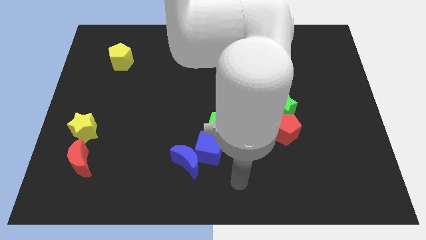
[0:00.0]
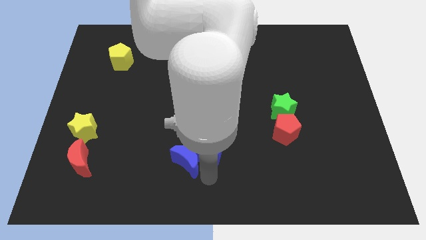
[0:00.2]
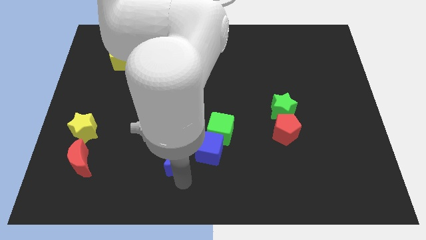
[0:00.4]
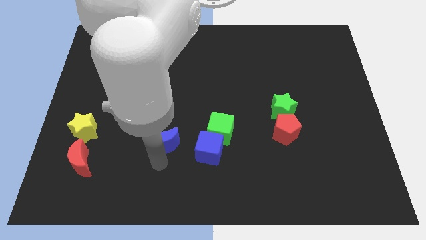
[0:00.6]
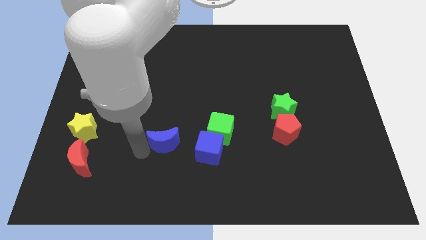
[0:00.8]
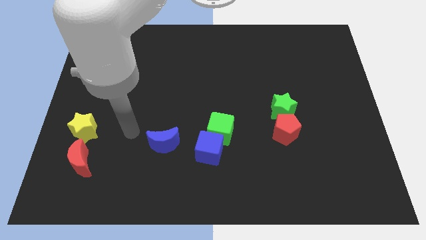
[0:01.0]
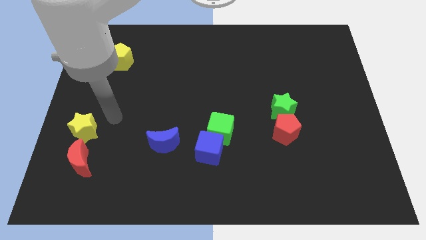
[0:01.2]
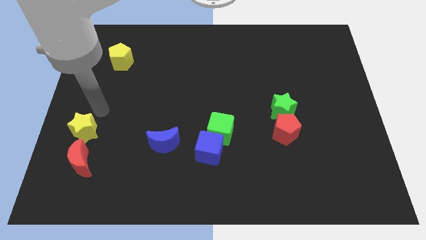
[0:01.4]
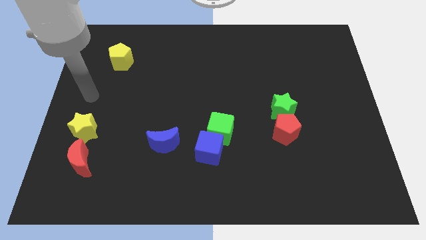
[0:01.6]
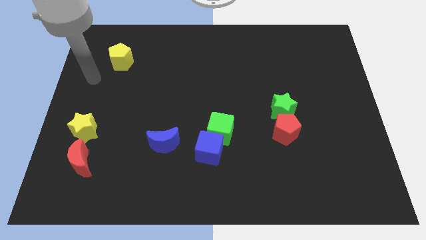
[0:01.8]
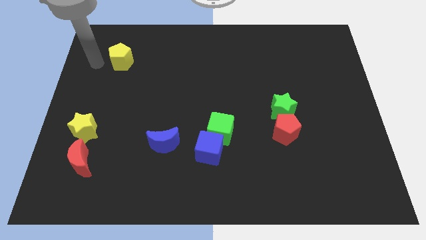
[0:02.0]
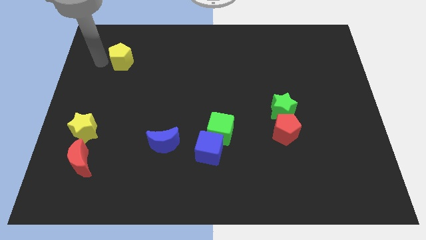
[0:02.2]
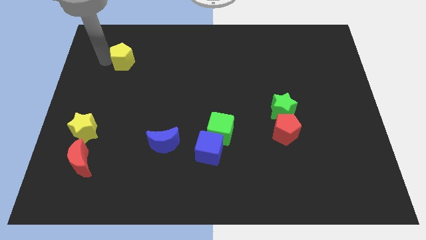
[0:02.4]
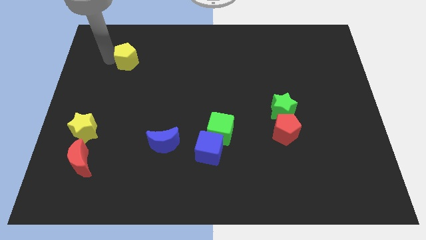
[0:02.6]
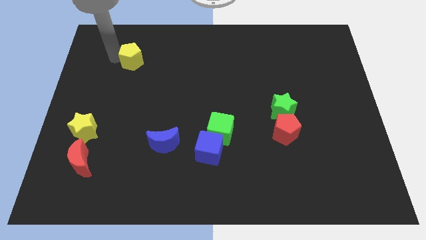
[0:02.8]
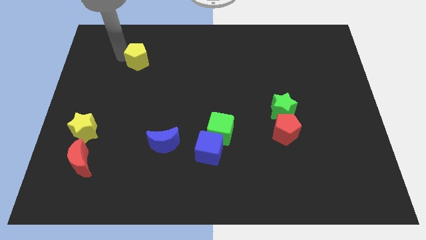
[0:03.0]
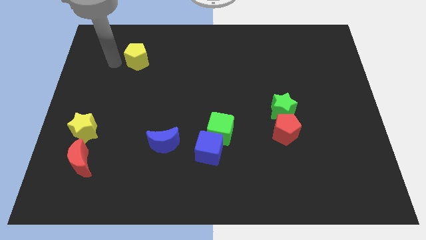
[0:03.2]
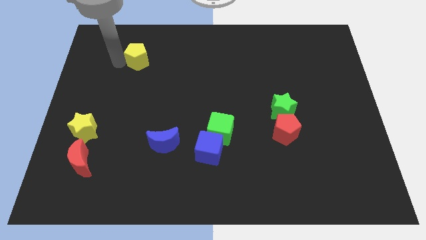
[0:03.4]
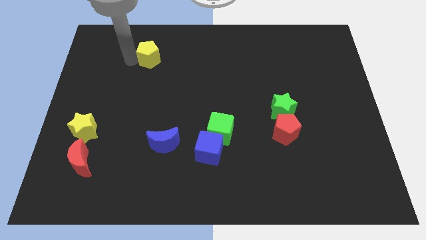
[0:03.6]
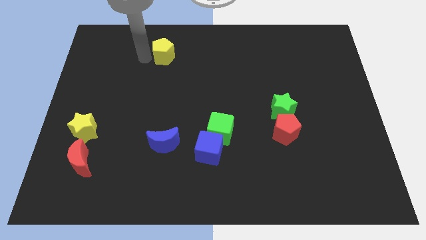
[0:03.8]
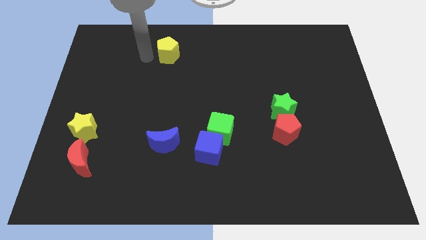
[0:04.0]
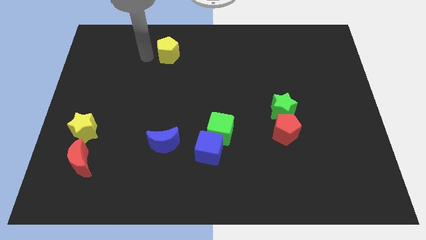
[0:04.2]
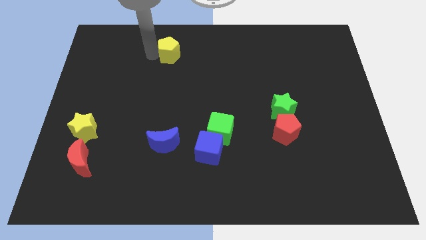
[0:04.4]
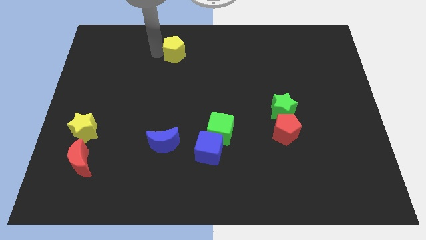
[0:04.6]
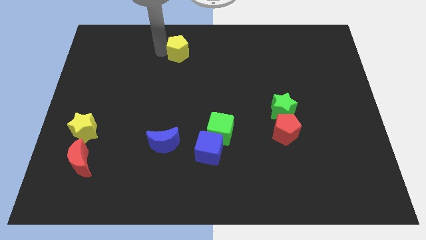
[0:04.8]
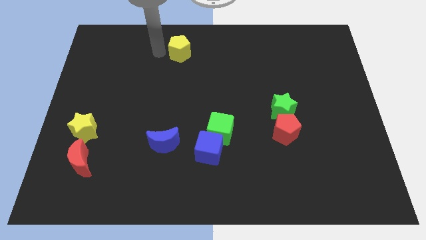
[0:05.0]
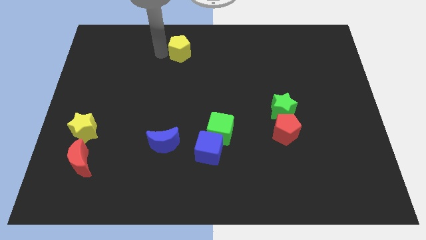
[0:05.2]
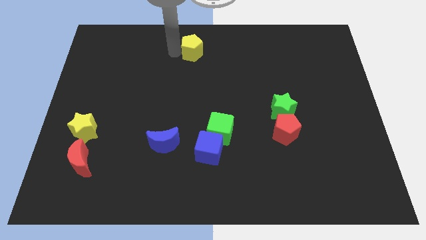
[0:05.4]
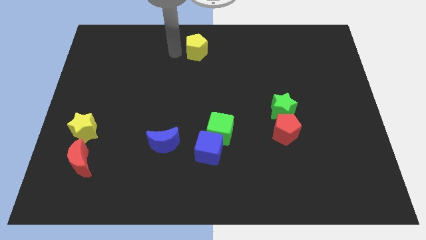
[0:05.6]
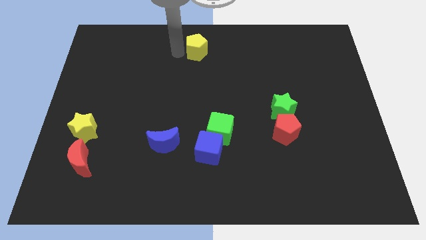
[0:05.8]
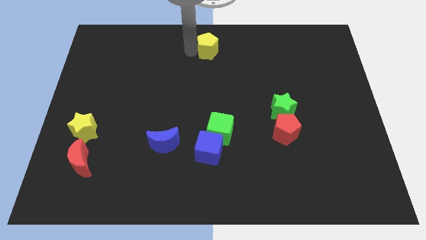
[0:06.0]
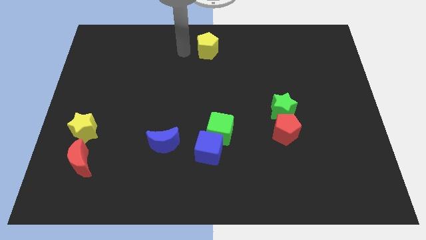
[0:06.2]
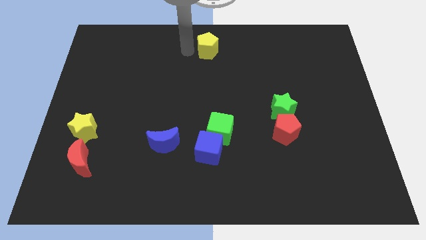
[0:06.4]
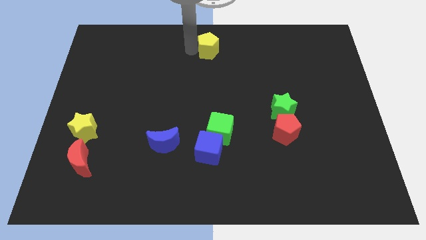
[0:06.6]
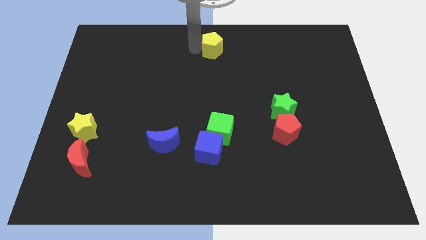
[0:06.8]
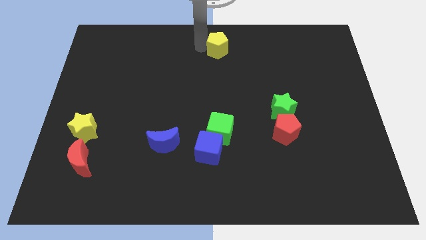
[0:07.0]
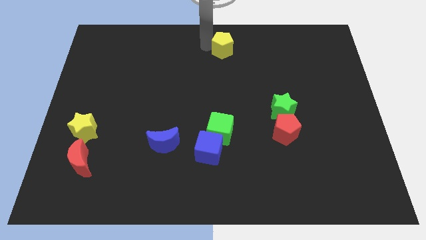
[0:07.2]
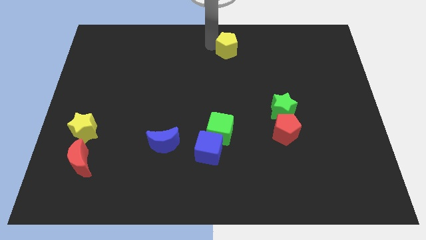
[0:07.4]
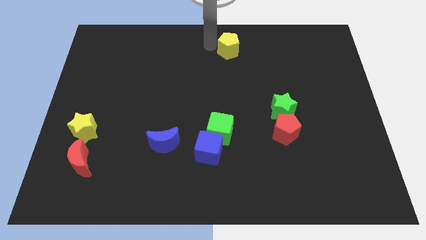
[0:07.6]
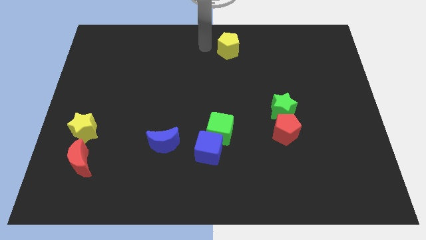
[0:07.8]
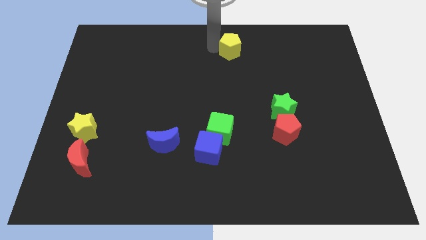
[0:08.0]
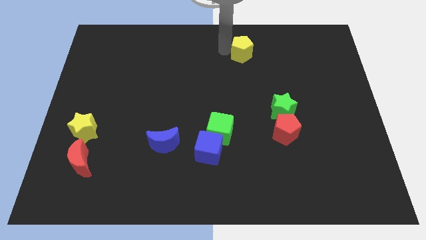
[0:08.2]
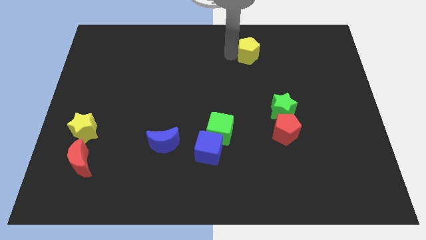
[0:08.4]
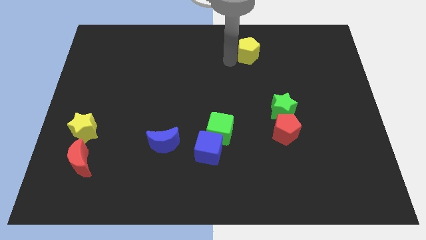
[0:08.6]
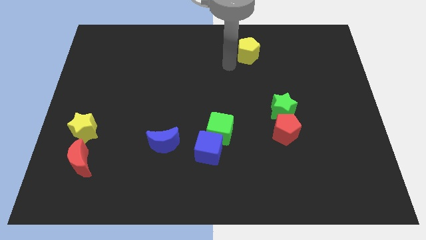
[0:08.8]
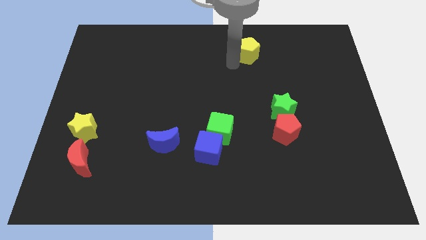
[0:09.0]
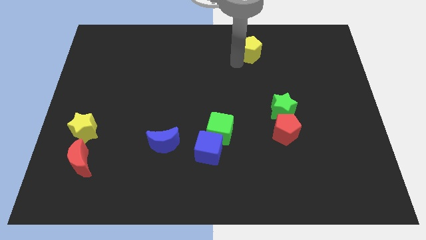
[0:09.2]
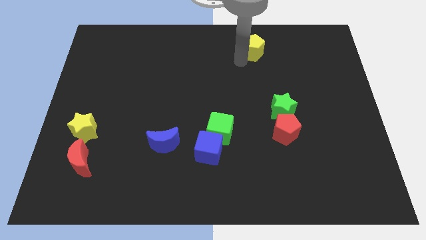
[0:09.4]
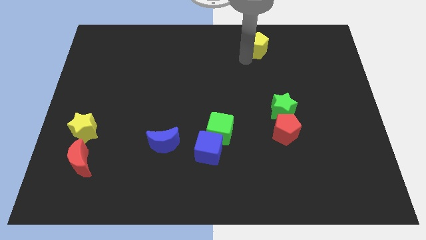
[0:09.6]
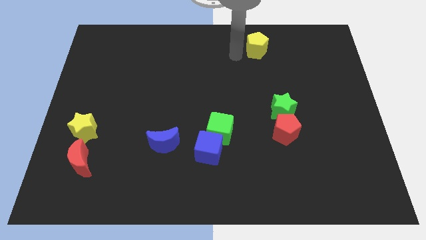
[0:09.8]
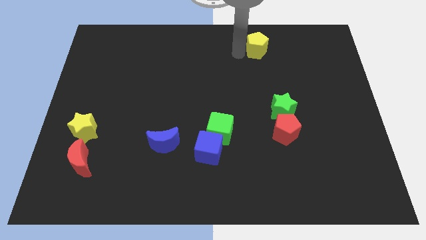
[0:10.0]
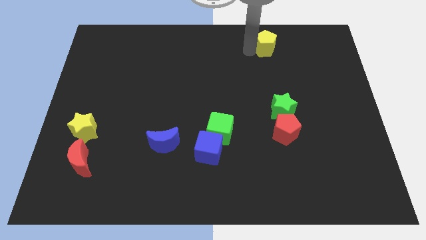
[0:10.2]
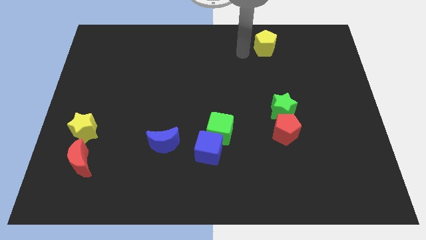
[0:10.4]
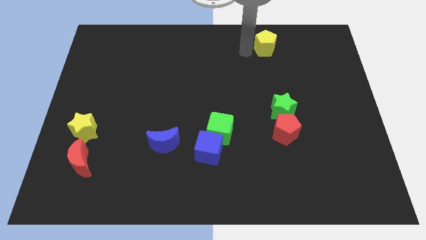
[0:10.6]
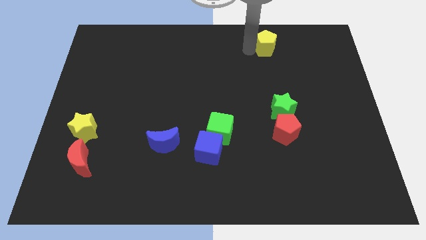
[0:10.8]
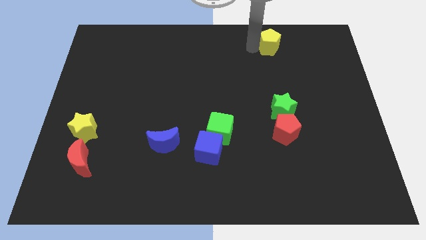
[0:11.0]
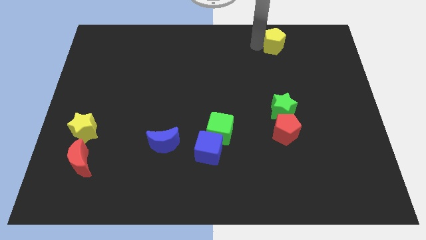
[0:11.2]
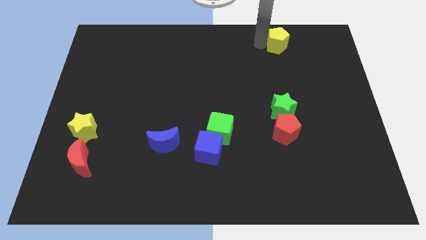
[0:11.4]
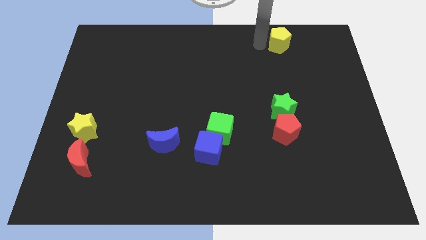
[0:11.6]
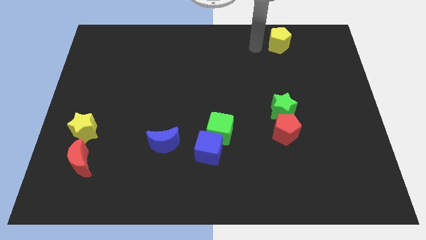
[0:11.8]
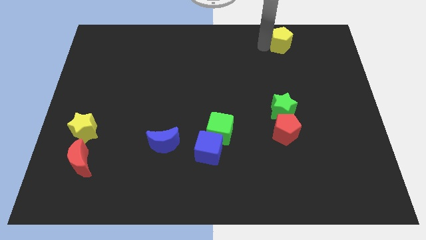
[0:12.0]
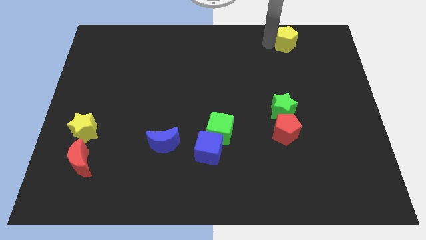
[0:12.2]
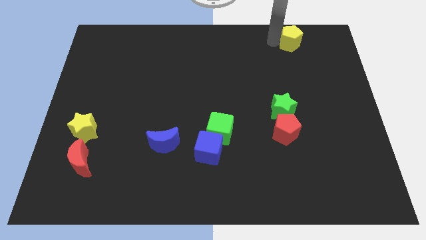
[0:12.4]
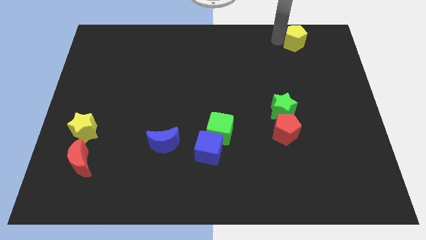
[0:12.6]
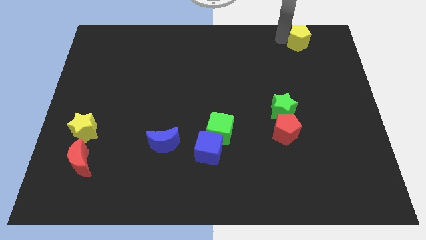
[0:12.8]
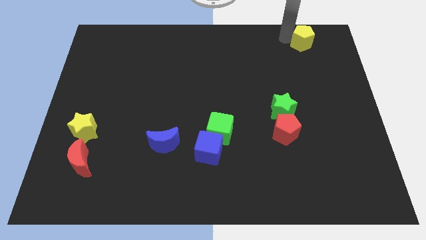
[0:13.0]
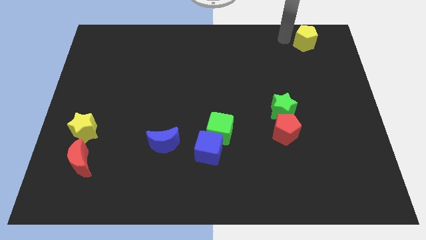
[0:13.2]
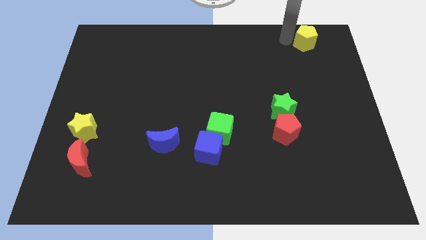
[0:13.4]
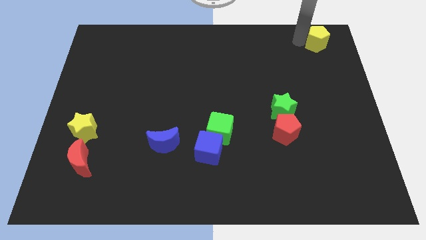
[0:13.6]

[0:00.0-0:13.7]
move the yellow pentagon to the top right
